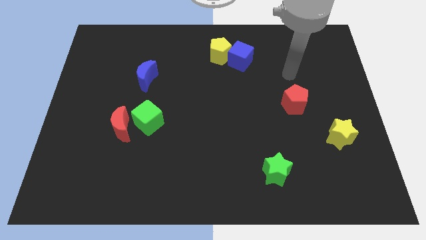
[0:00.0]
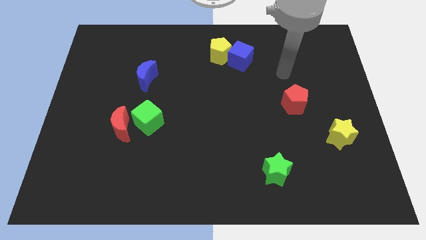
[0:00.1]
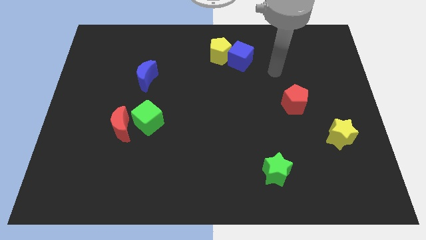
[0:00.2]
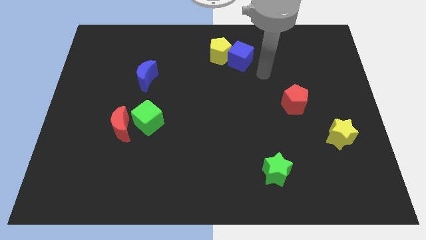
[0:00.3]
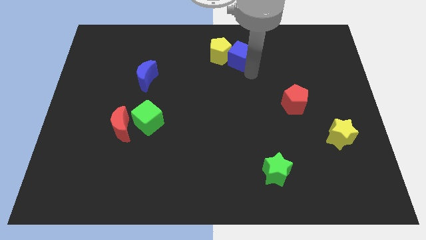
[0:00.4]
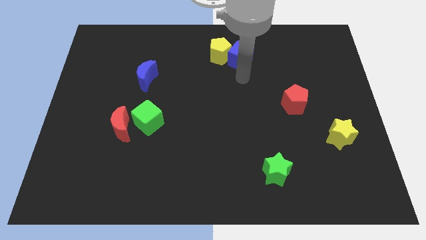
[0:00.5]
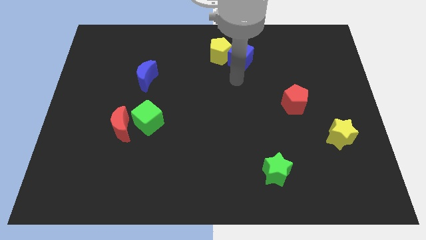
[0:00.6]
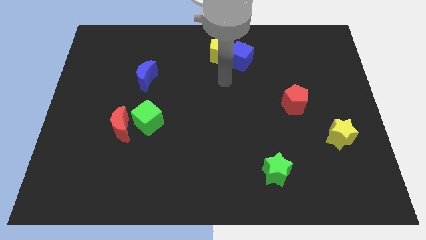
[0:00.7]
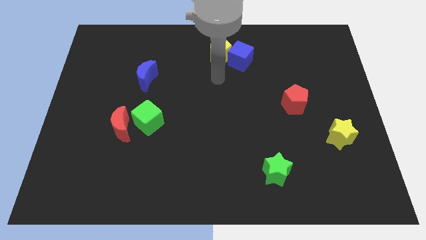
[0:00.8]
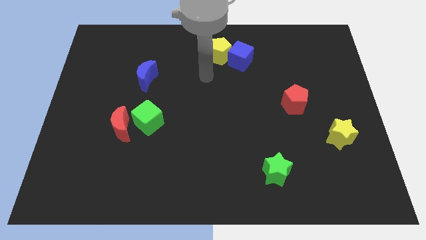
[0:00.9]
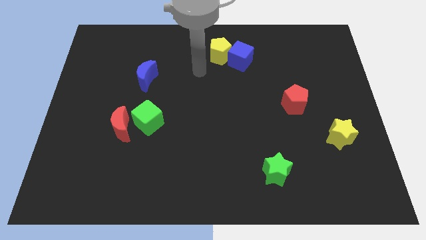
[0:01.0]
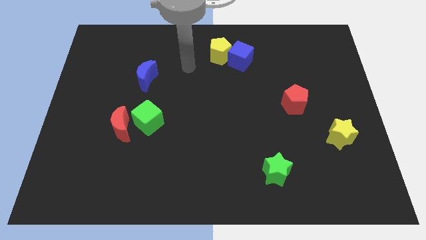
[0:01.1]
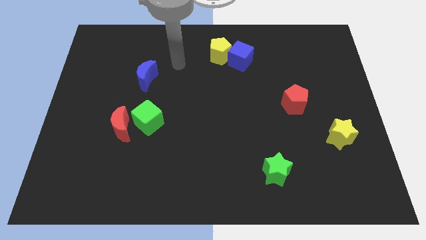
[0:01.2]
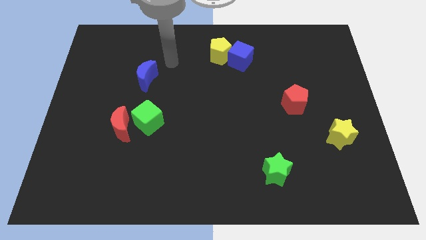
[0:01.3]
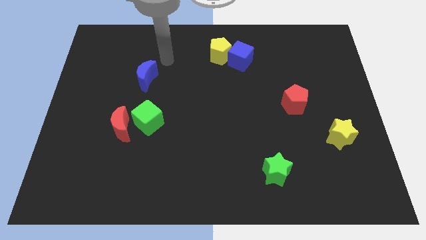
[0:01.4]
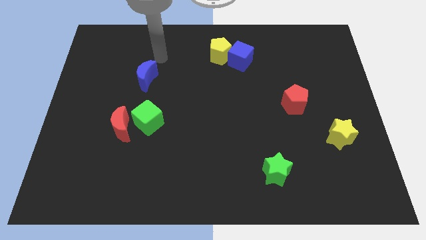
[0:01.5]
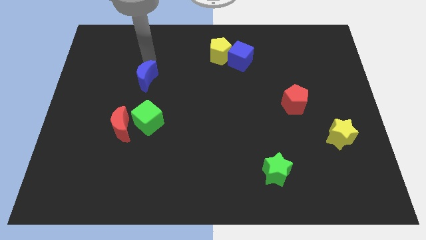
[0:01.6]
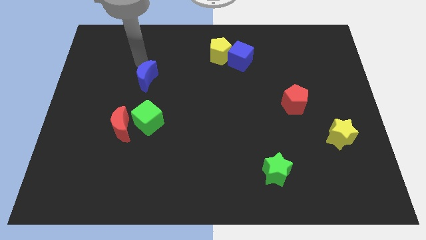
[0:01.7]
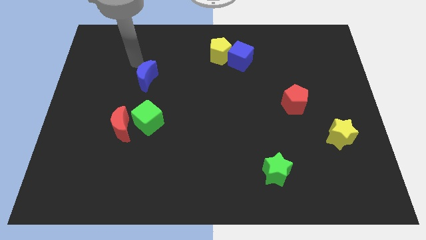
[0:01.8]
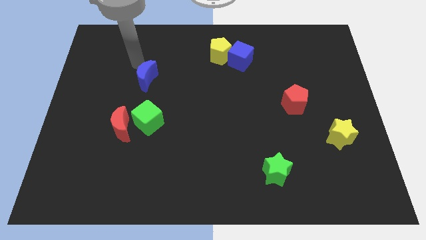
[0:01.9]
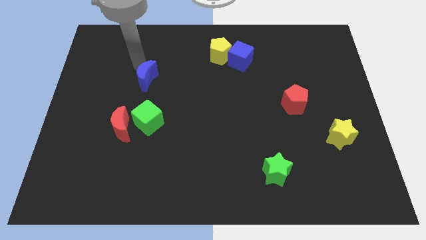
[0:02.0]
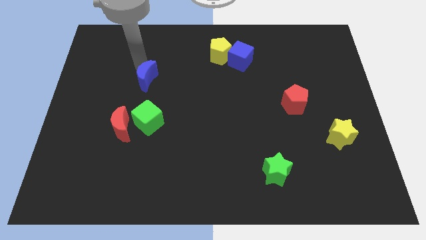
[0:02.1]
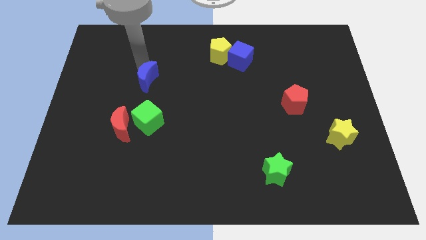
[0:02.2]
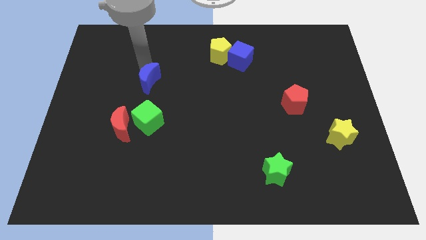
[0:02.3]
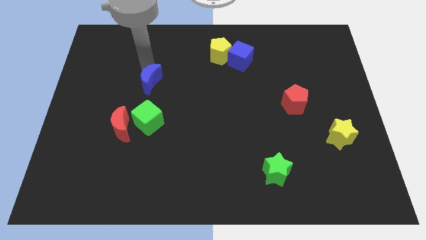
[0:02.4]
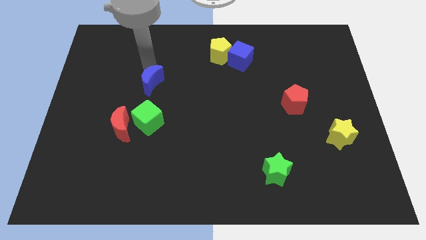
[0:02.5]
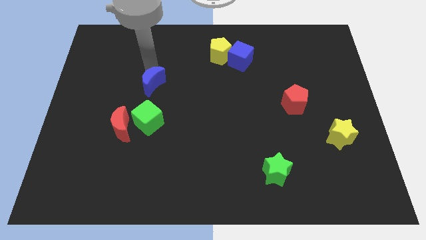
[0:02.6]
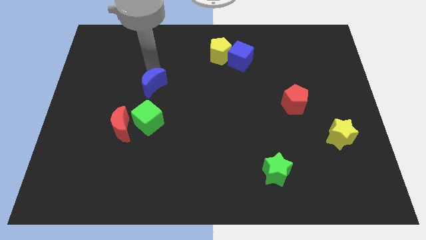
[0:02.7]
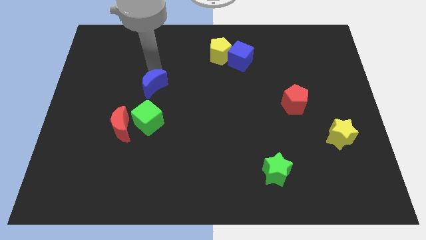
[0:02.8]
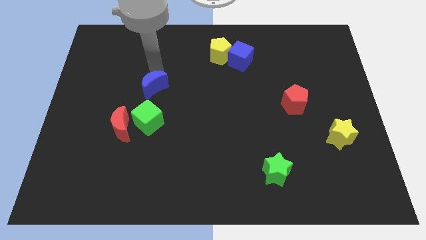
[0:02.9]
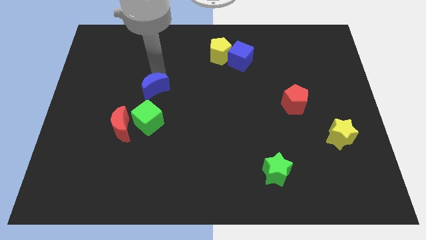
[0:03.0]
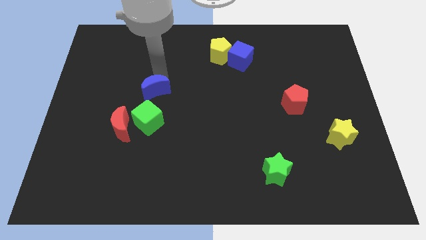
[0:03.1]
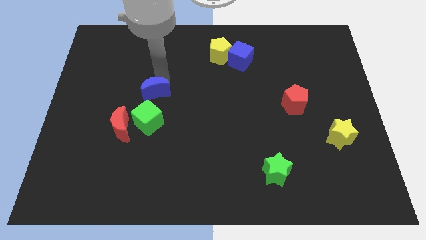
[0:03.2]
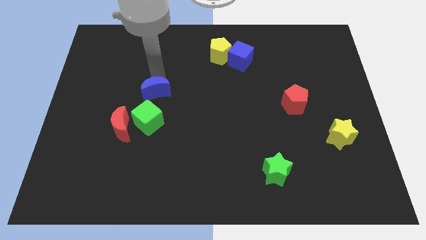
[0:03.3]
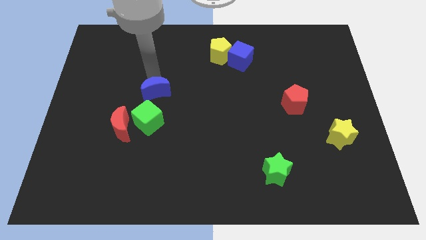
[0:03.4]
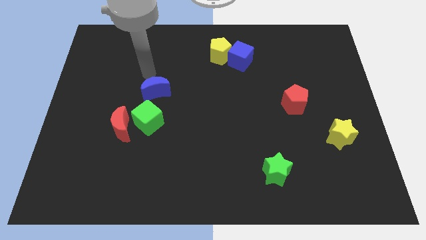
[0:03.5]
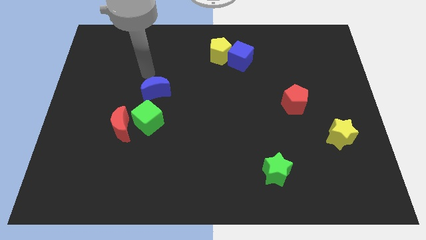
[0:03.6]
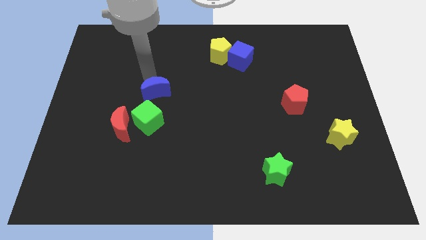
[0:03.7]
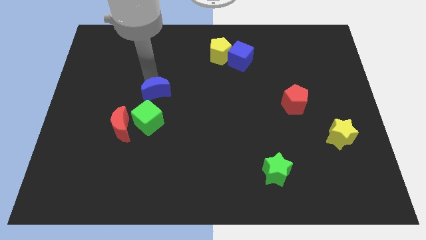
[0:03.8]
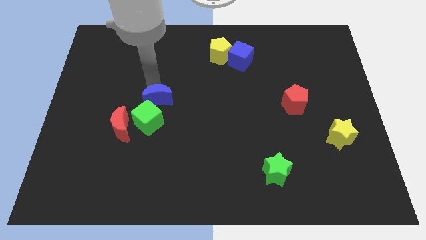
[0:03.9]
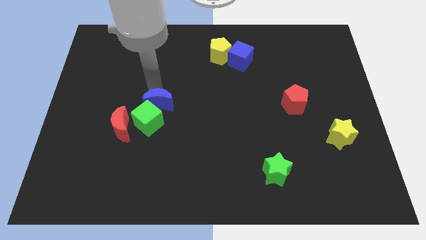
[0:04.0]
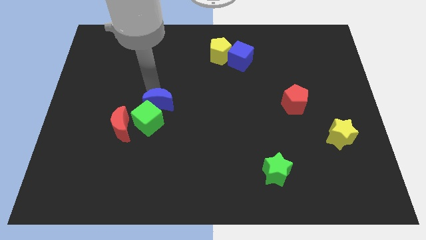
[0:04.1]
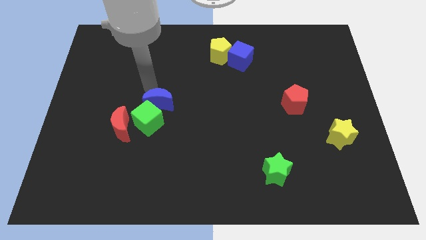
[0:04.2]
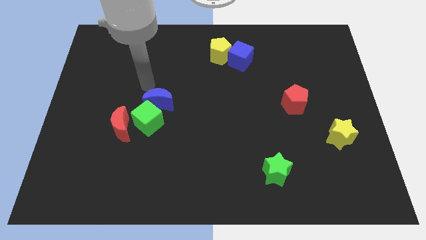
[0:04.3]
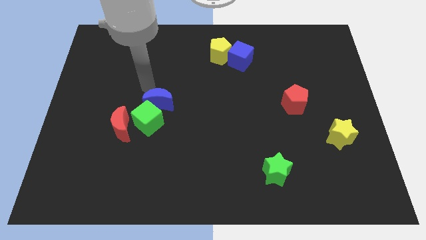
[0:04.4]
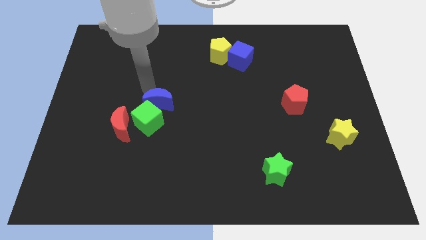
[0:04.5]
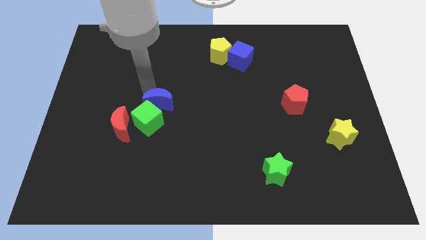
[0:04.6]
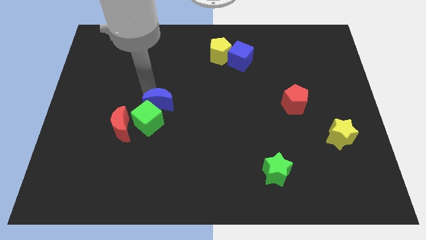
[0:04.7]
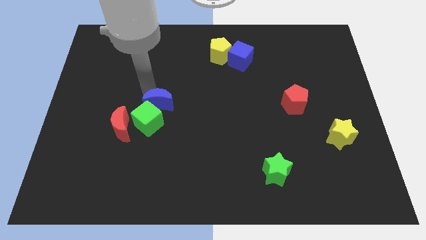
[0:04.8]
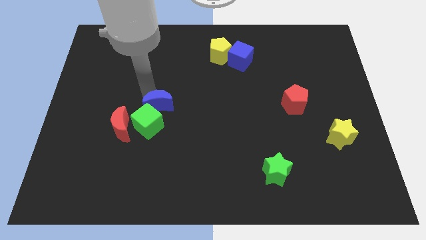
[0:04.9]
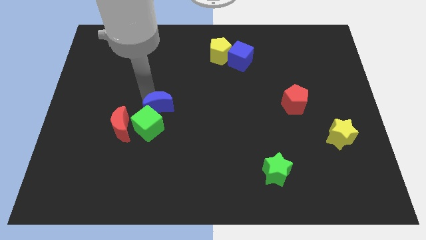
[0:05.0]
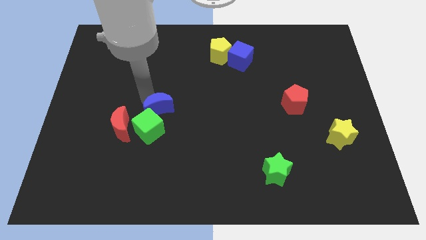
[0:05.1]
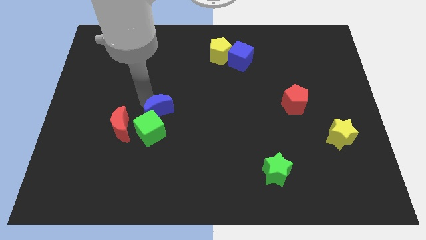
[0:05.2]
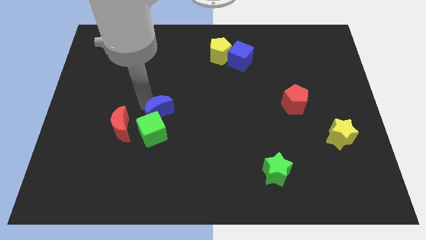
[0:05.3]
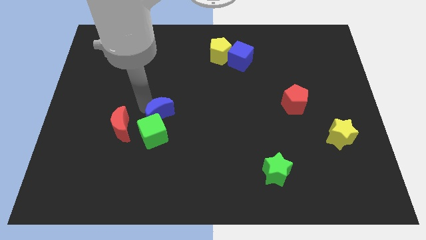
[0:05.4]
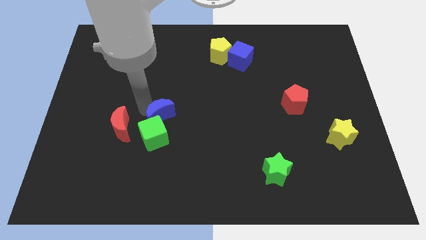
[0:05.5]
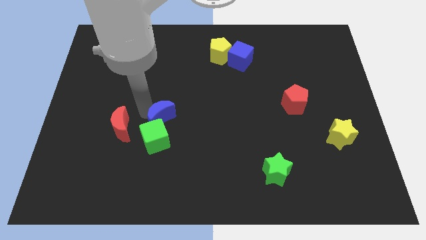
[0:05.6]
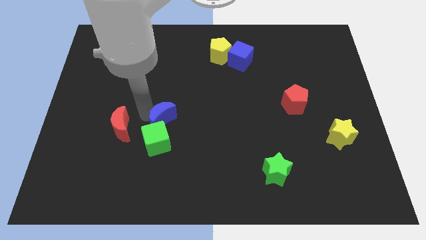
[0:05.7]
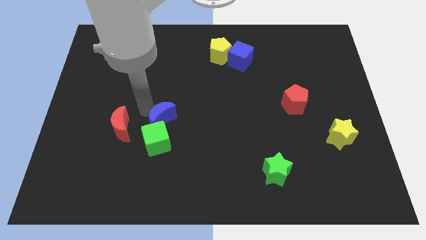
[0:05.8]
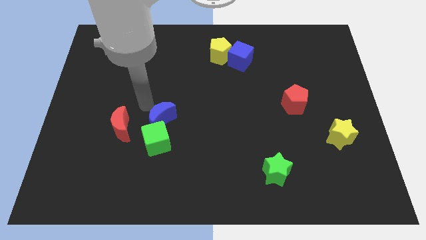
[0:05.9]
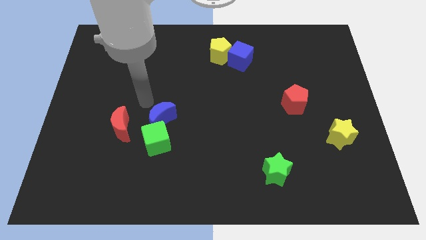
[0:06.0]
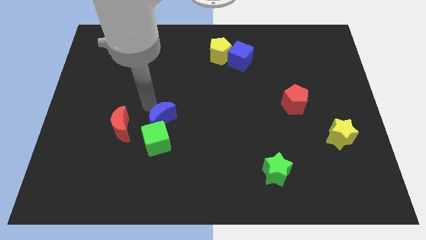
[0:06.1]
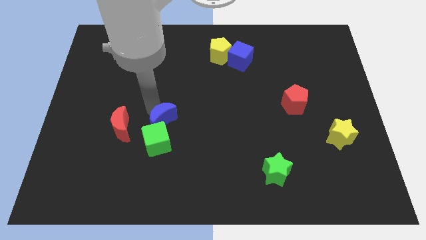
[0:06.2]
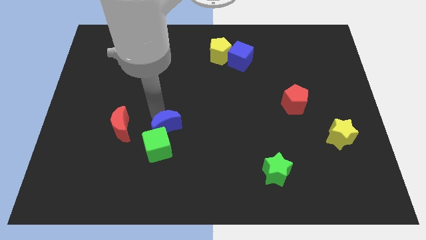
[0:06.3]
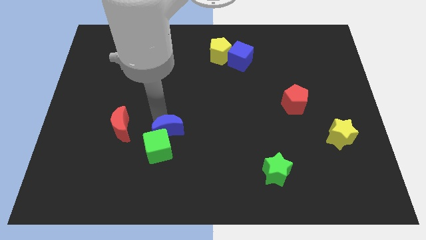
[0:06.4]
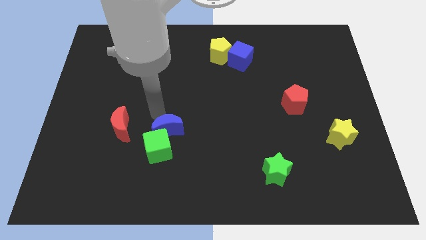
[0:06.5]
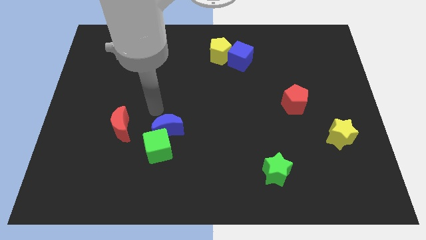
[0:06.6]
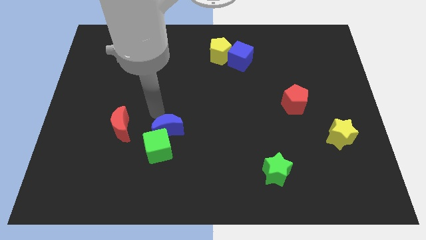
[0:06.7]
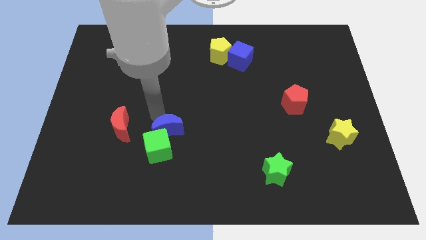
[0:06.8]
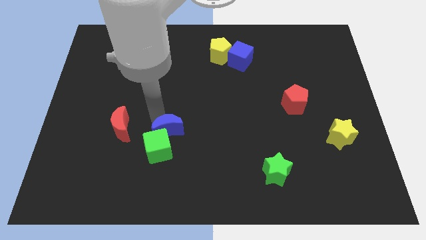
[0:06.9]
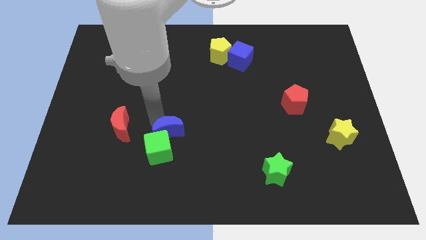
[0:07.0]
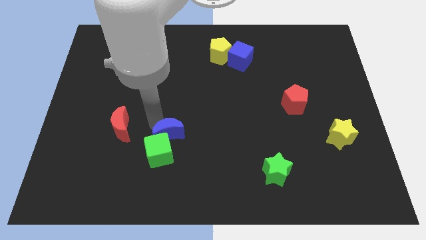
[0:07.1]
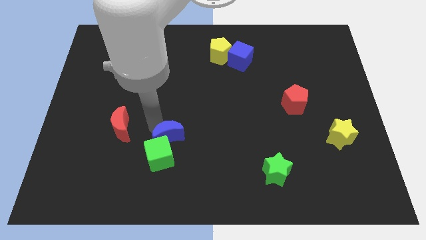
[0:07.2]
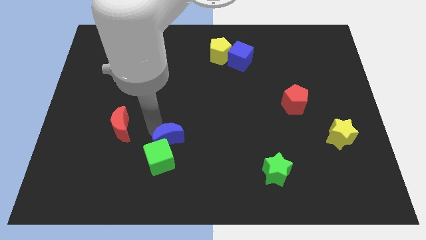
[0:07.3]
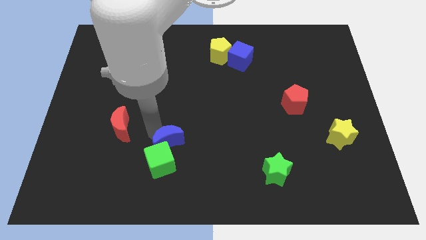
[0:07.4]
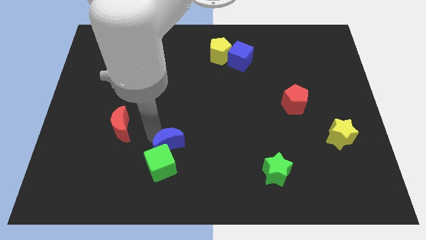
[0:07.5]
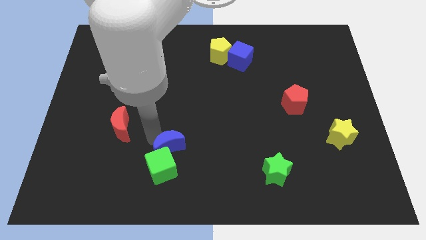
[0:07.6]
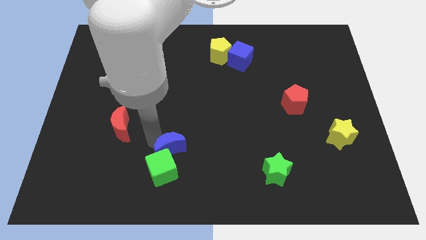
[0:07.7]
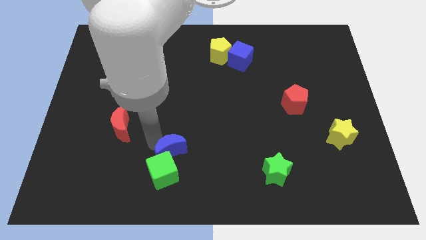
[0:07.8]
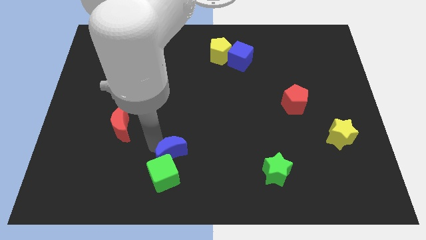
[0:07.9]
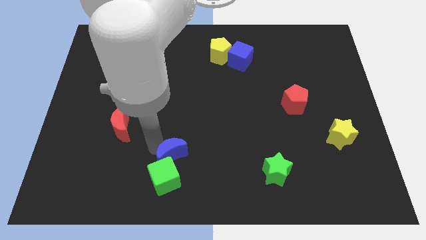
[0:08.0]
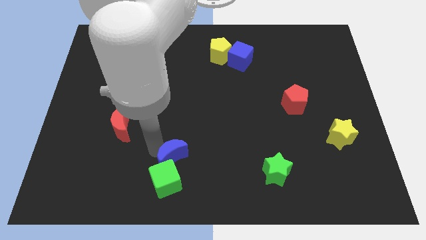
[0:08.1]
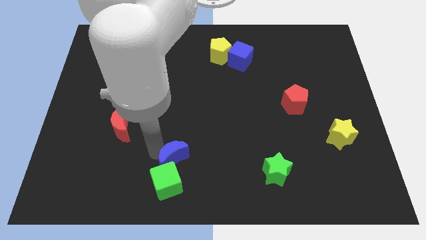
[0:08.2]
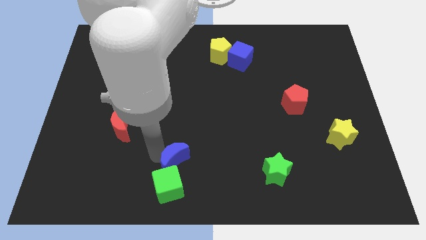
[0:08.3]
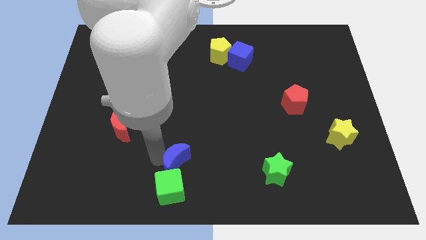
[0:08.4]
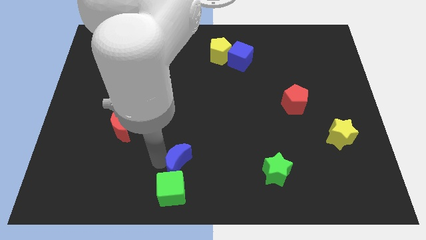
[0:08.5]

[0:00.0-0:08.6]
put the blue moon to the bottom side
